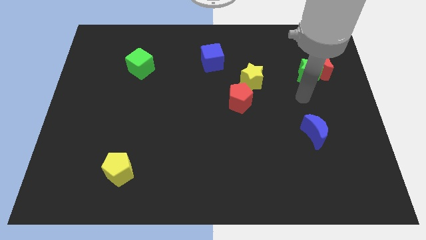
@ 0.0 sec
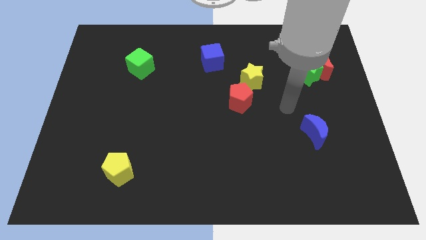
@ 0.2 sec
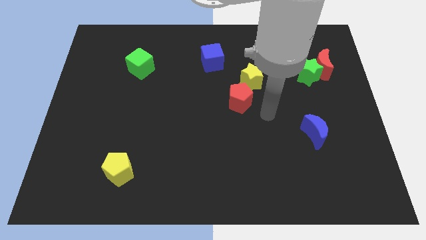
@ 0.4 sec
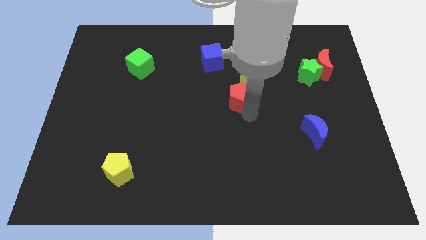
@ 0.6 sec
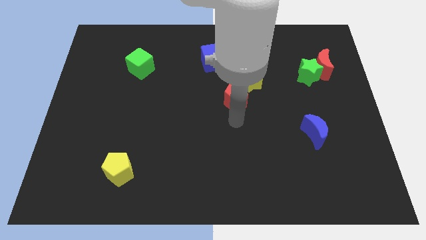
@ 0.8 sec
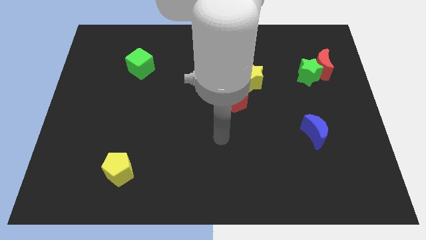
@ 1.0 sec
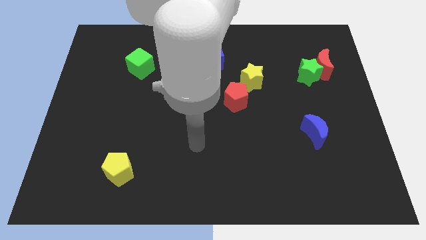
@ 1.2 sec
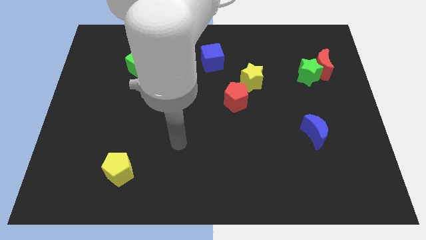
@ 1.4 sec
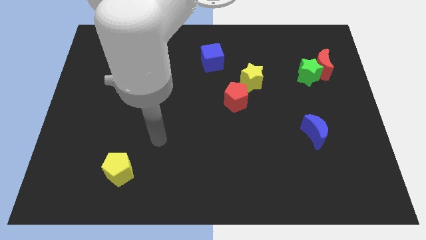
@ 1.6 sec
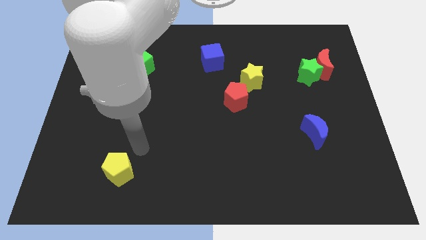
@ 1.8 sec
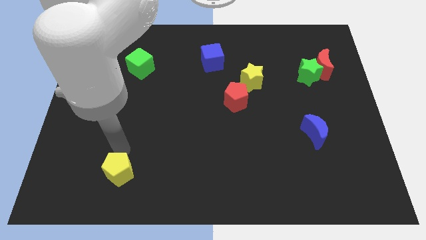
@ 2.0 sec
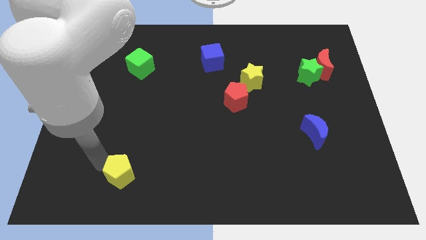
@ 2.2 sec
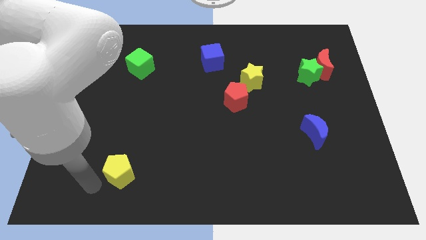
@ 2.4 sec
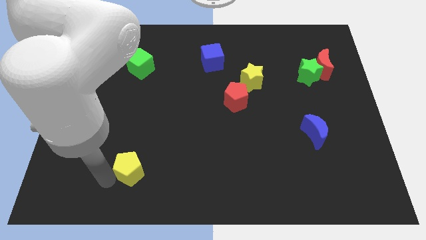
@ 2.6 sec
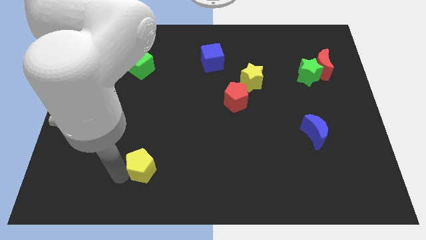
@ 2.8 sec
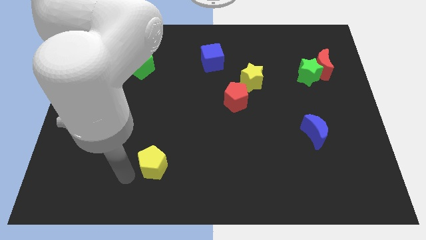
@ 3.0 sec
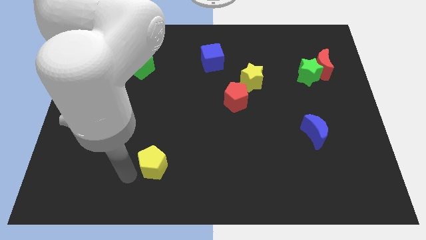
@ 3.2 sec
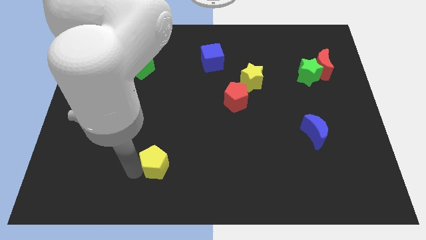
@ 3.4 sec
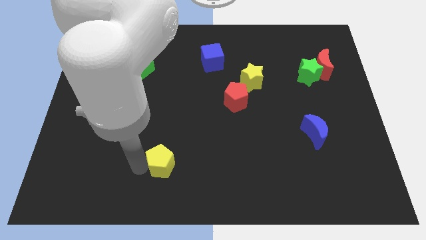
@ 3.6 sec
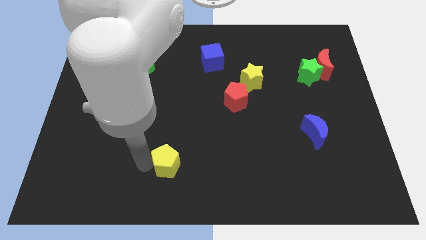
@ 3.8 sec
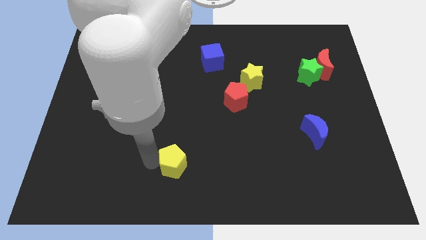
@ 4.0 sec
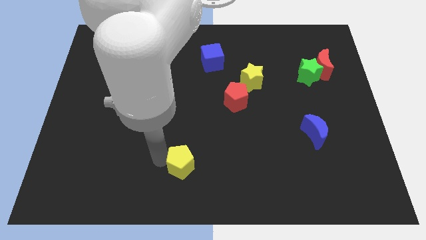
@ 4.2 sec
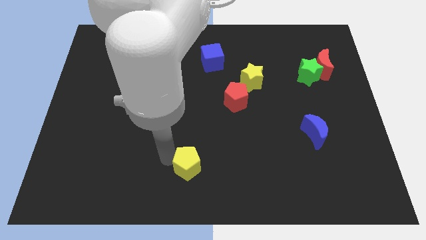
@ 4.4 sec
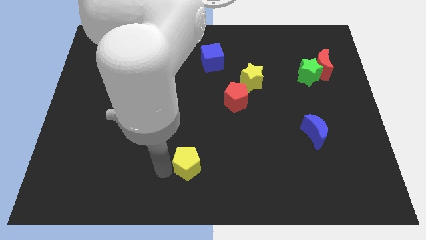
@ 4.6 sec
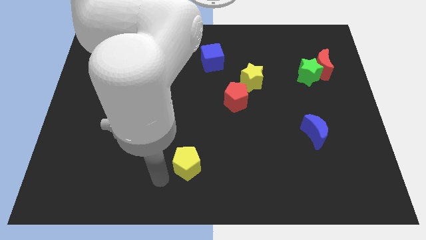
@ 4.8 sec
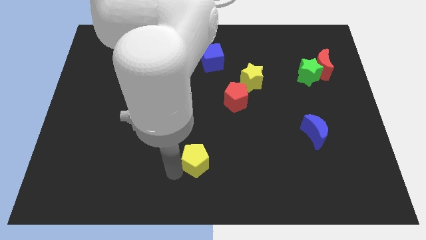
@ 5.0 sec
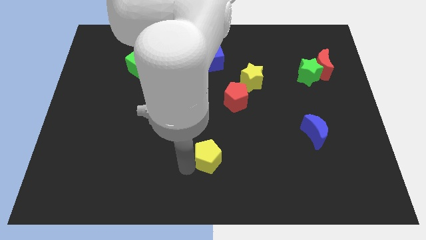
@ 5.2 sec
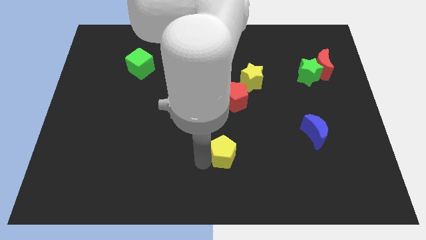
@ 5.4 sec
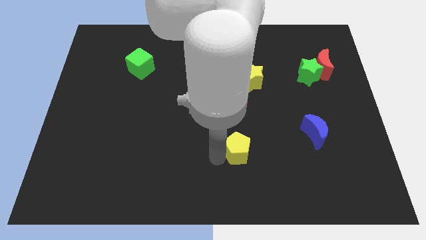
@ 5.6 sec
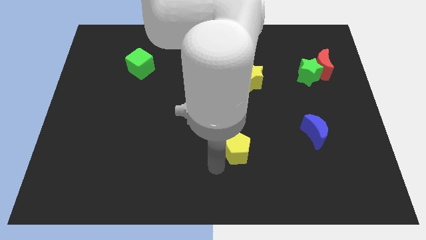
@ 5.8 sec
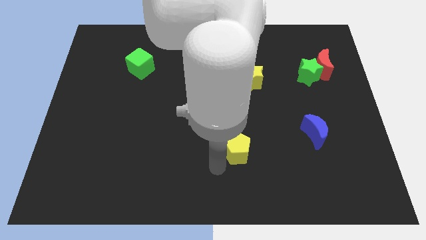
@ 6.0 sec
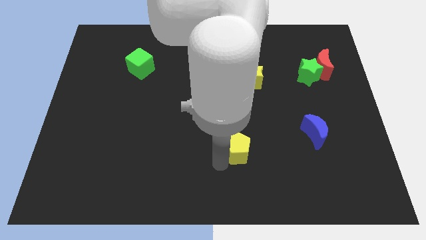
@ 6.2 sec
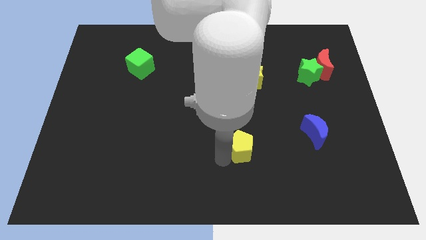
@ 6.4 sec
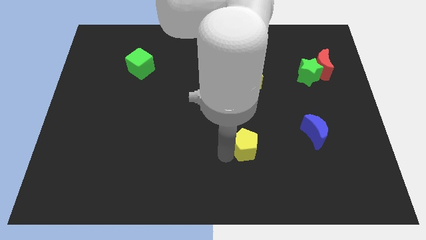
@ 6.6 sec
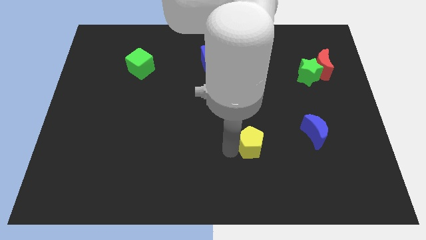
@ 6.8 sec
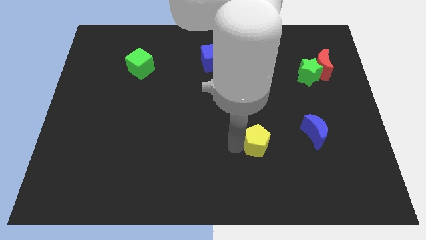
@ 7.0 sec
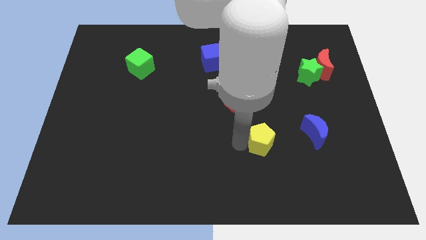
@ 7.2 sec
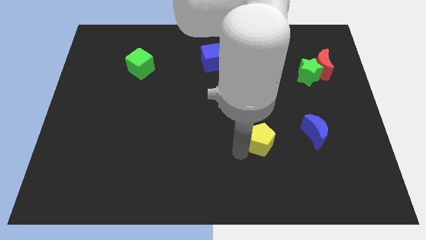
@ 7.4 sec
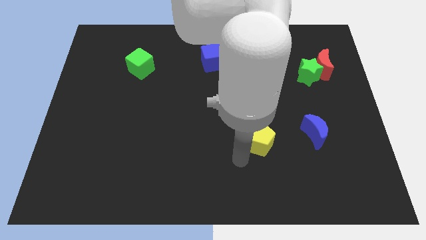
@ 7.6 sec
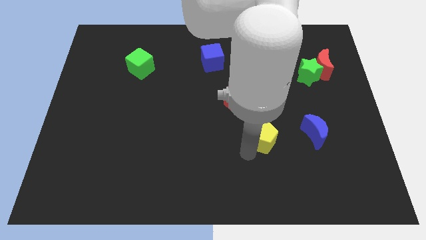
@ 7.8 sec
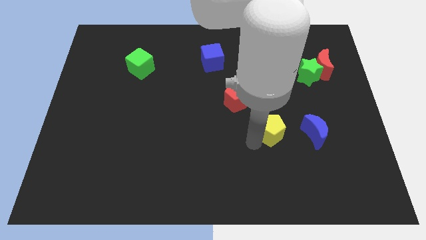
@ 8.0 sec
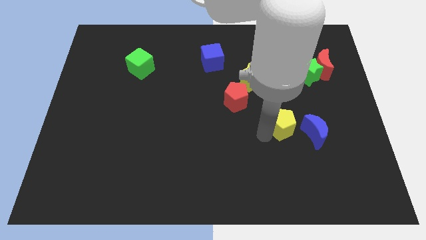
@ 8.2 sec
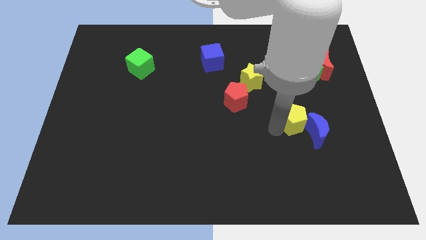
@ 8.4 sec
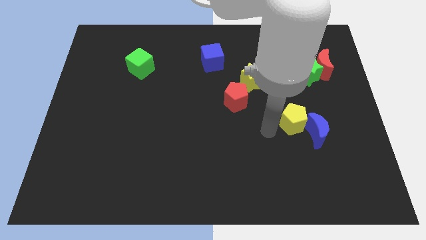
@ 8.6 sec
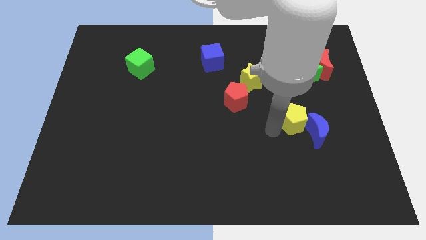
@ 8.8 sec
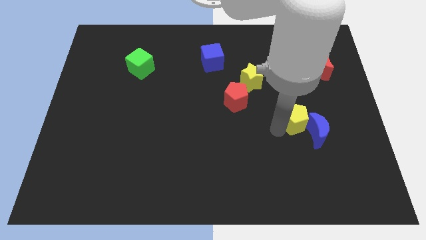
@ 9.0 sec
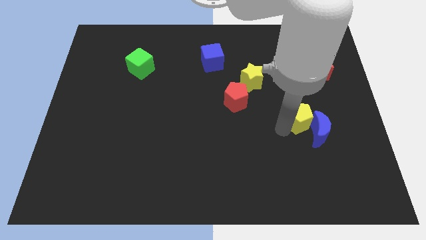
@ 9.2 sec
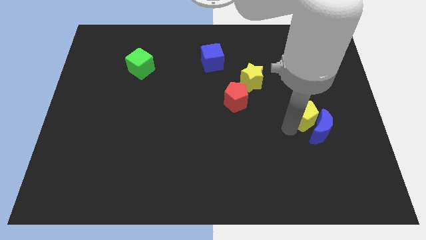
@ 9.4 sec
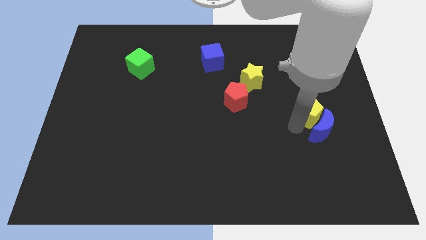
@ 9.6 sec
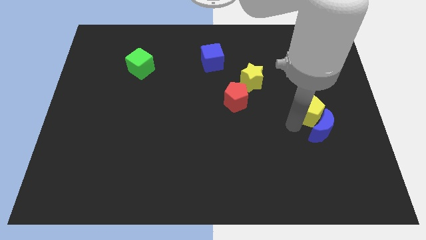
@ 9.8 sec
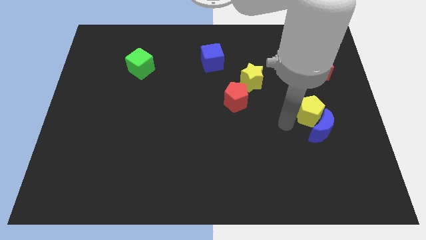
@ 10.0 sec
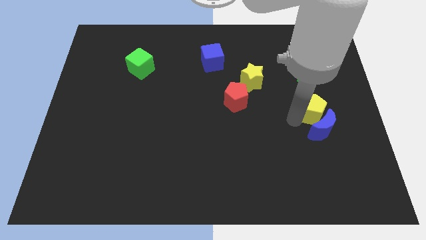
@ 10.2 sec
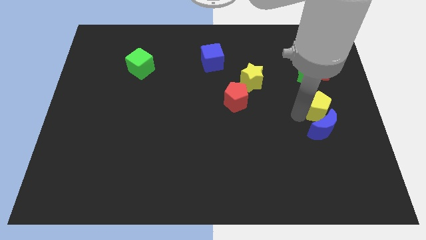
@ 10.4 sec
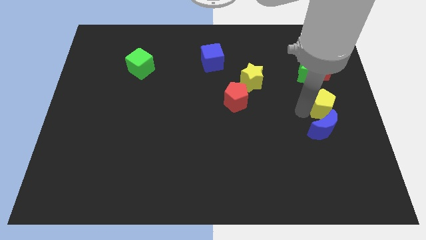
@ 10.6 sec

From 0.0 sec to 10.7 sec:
push the yellow pentagon to the right side

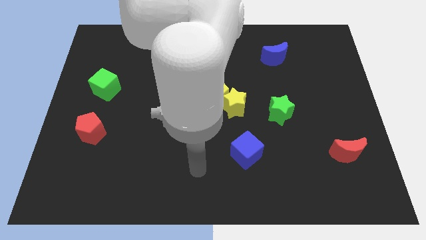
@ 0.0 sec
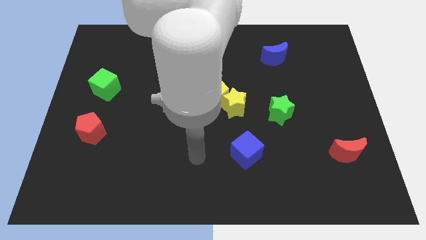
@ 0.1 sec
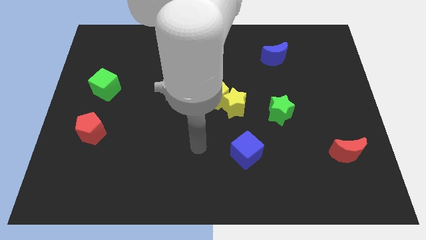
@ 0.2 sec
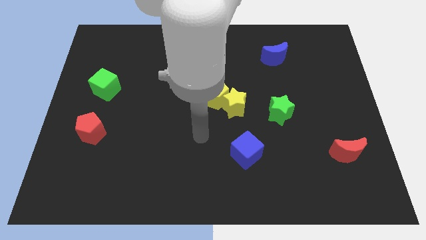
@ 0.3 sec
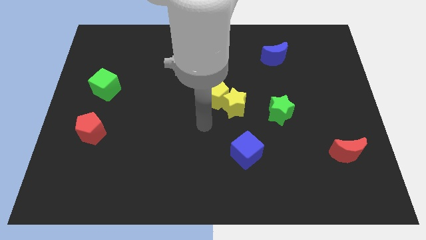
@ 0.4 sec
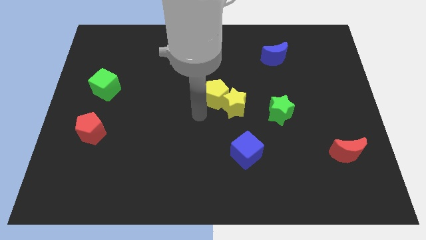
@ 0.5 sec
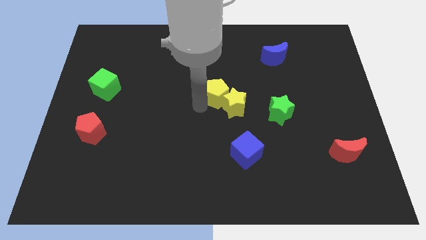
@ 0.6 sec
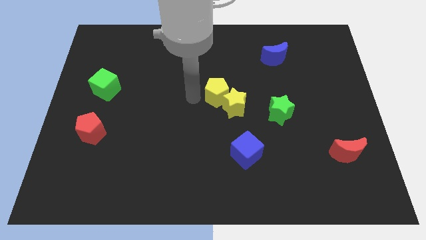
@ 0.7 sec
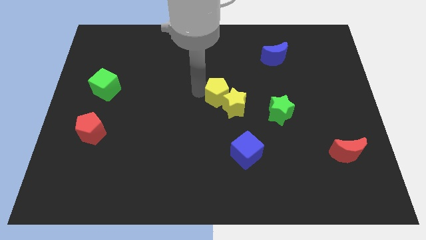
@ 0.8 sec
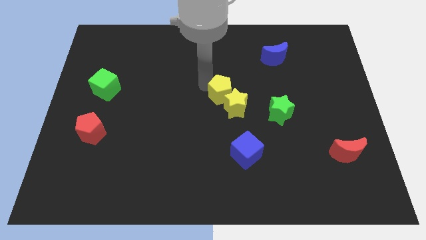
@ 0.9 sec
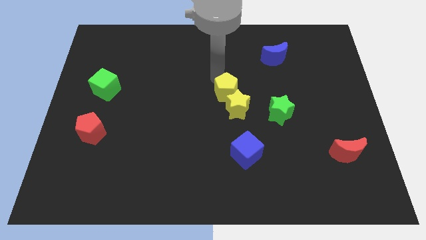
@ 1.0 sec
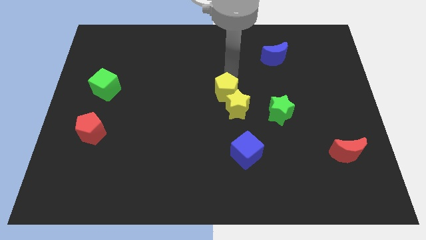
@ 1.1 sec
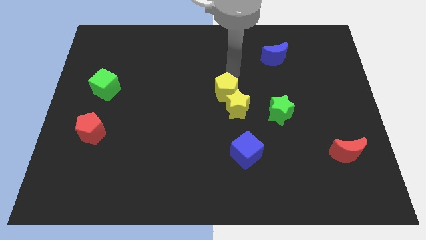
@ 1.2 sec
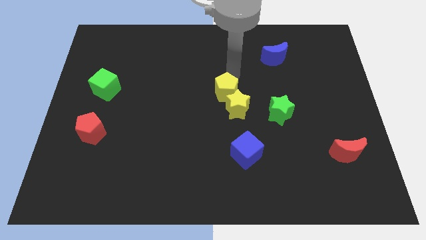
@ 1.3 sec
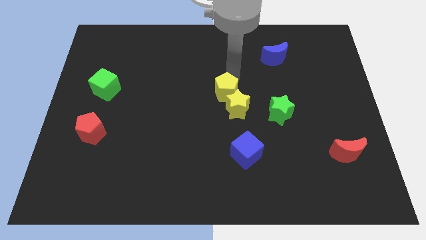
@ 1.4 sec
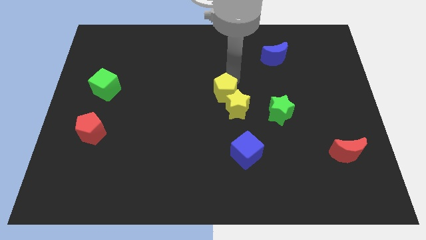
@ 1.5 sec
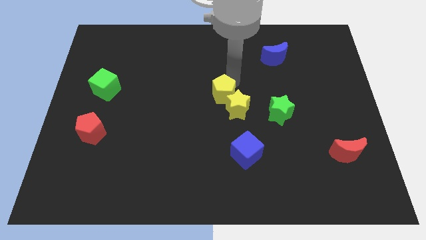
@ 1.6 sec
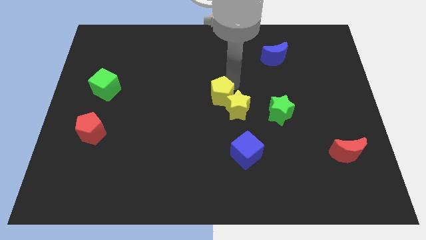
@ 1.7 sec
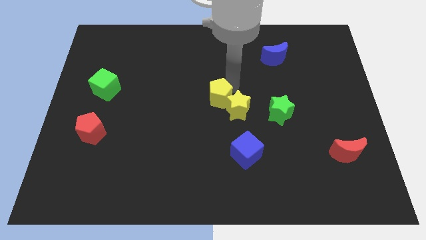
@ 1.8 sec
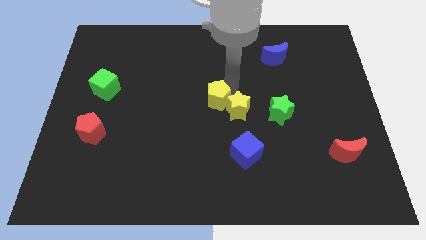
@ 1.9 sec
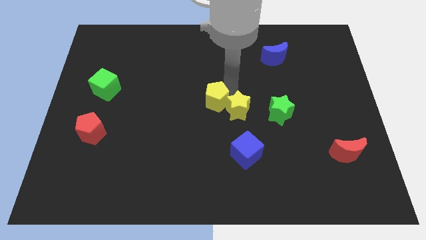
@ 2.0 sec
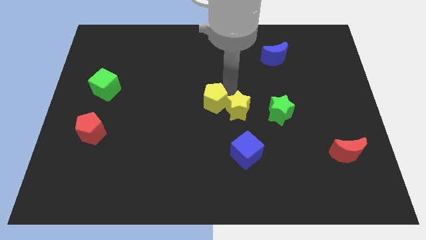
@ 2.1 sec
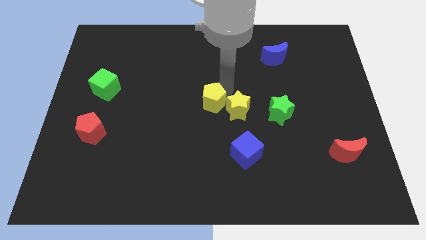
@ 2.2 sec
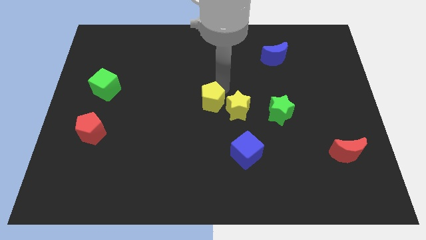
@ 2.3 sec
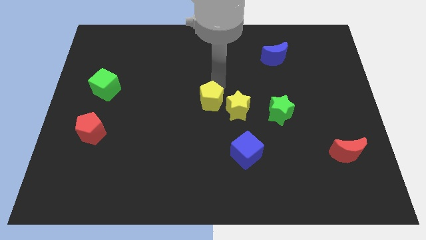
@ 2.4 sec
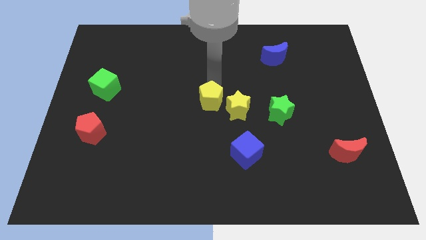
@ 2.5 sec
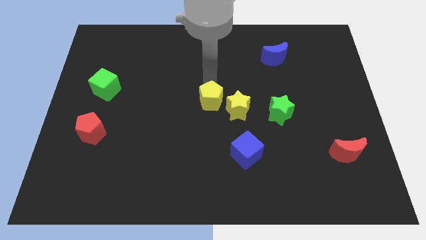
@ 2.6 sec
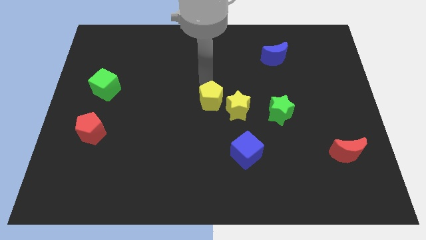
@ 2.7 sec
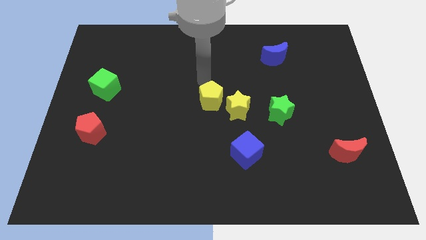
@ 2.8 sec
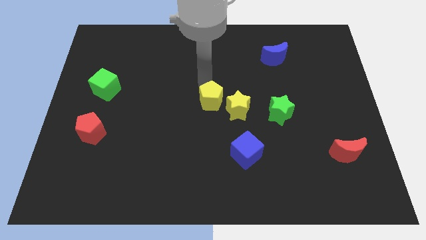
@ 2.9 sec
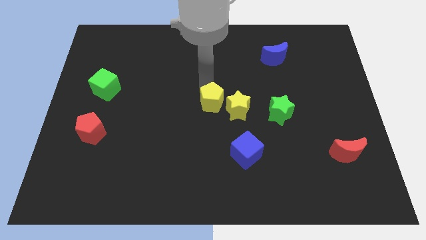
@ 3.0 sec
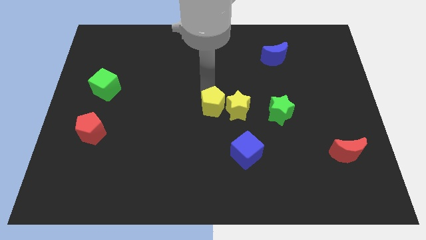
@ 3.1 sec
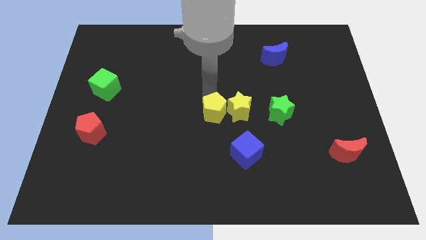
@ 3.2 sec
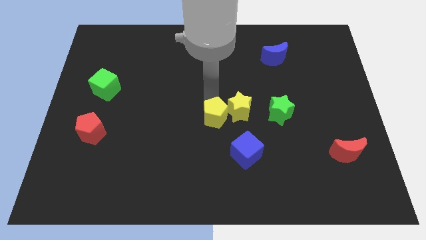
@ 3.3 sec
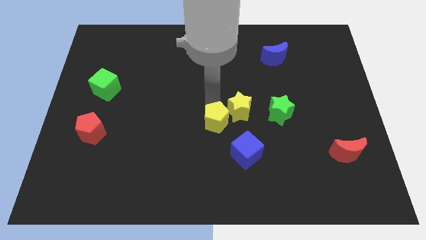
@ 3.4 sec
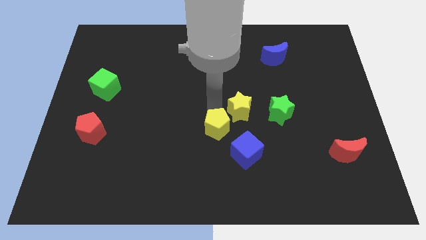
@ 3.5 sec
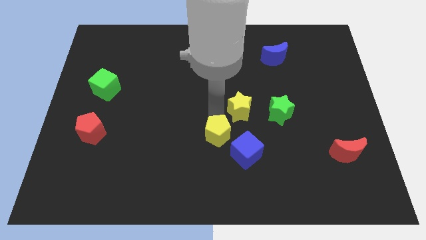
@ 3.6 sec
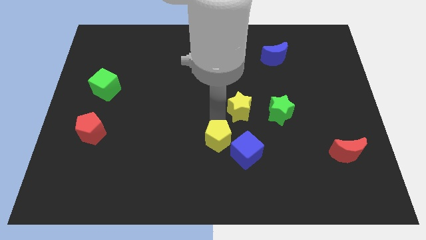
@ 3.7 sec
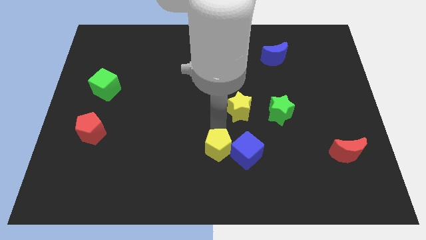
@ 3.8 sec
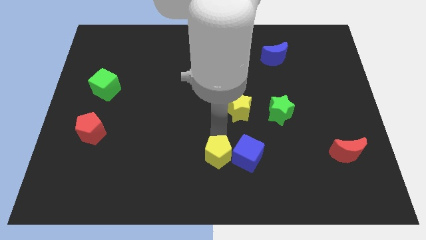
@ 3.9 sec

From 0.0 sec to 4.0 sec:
put the yellow pentagon to the bottom
